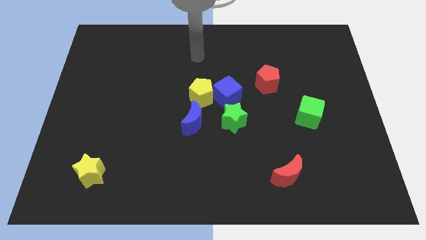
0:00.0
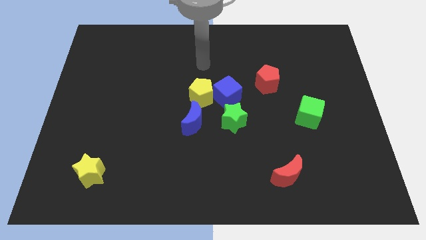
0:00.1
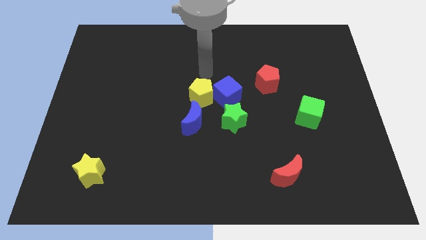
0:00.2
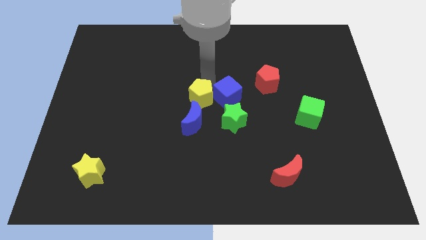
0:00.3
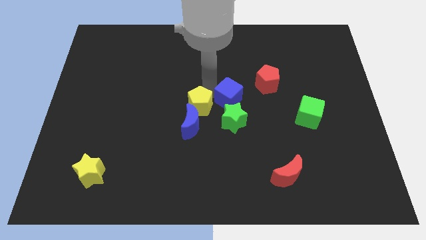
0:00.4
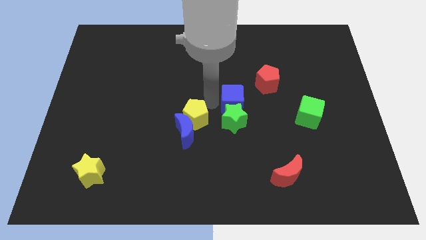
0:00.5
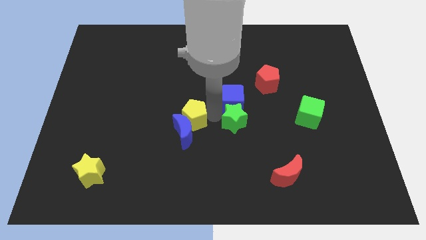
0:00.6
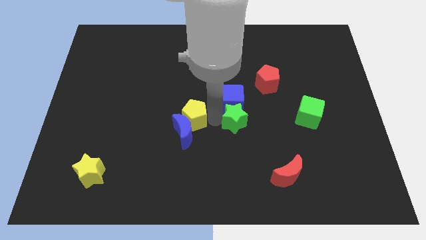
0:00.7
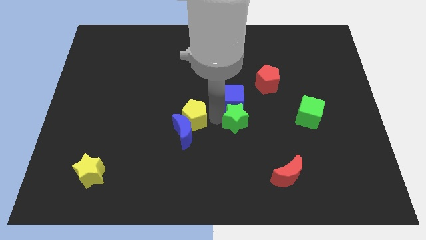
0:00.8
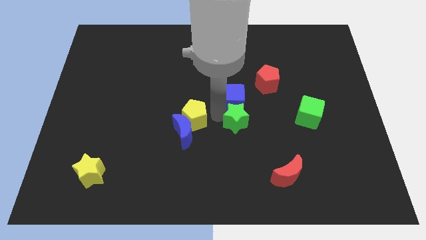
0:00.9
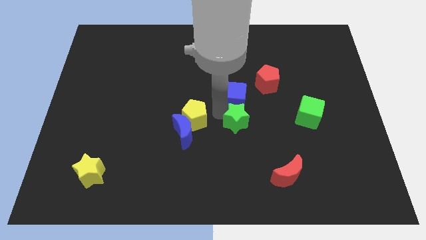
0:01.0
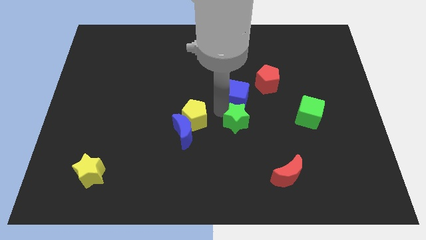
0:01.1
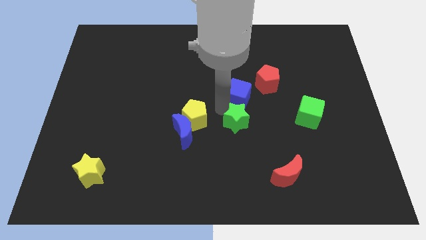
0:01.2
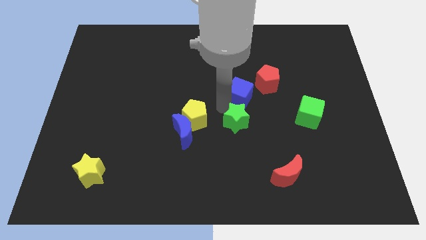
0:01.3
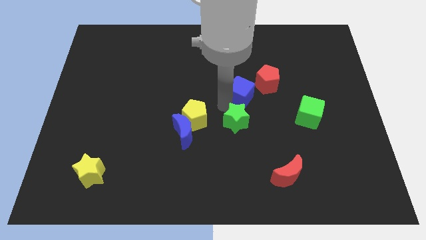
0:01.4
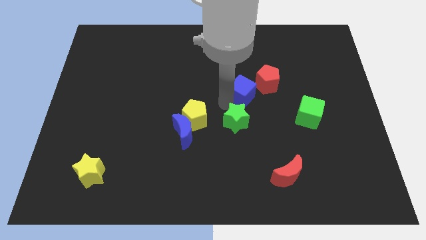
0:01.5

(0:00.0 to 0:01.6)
separate the blue cube from the yellow pentagon and green star

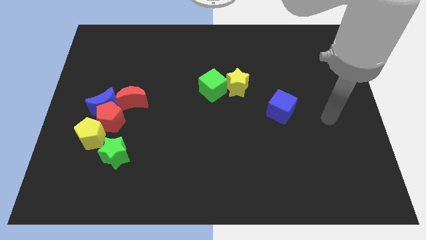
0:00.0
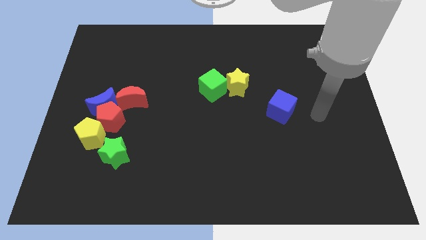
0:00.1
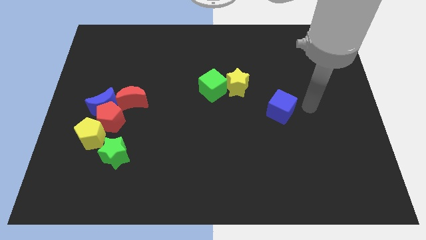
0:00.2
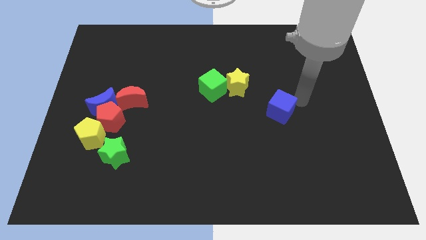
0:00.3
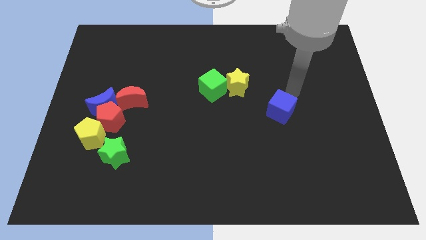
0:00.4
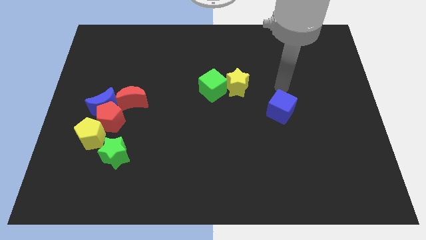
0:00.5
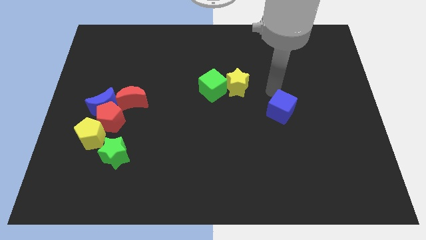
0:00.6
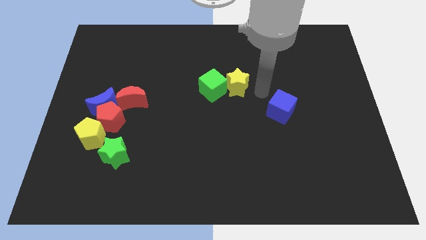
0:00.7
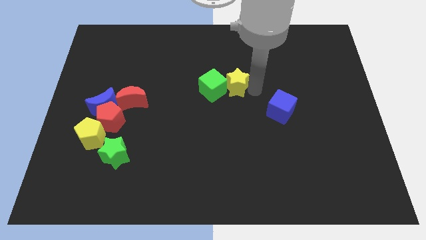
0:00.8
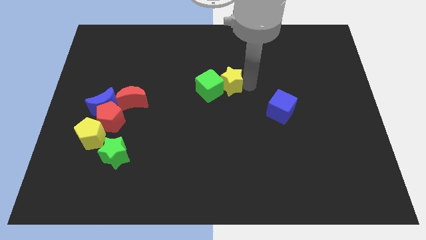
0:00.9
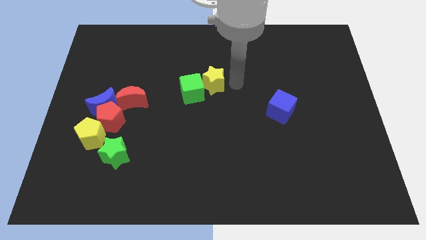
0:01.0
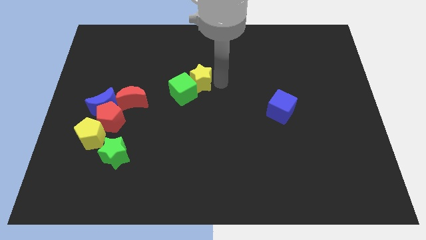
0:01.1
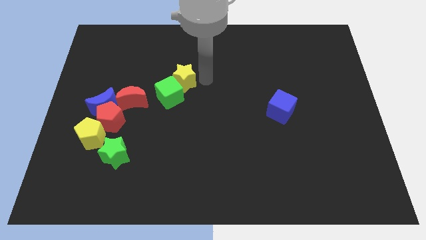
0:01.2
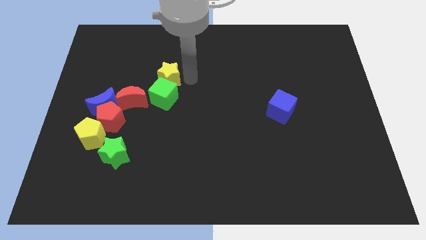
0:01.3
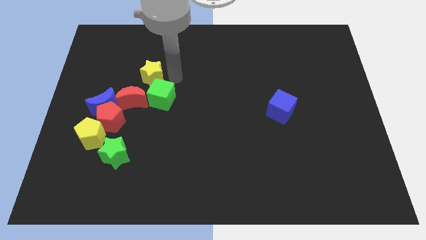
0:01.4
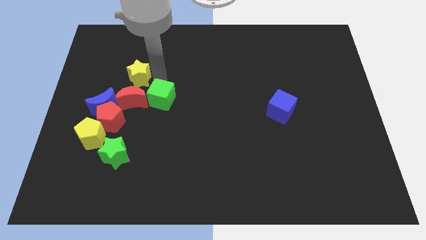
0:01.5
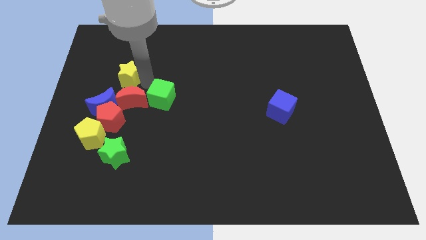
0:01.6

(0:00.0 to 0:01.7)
separate the green cube from the yellow star

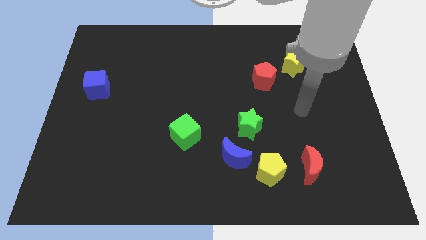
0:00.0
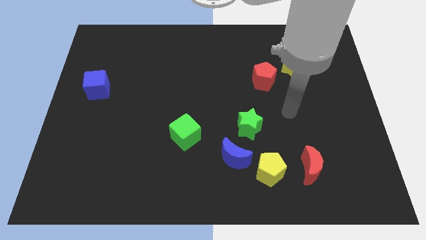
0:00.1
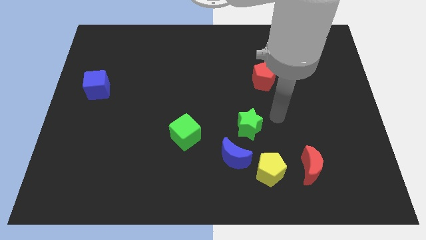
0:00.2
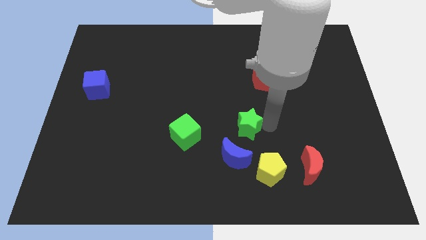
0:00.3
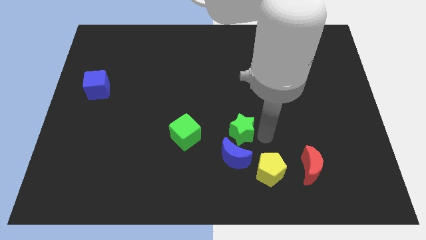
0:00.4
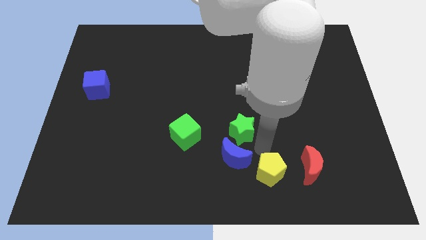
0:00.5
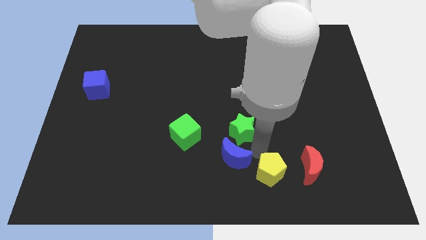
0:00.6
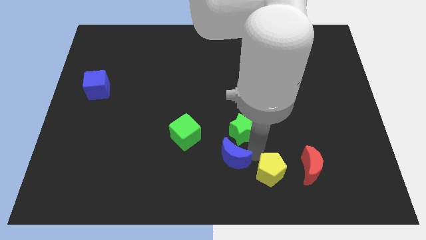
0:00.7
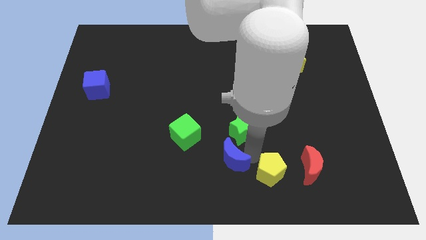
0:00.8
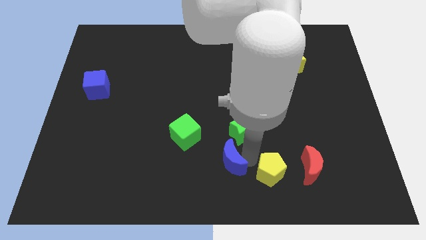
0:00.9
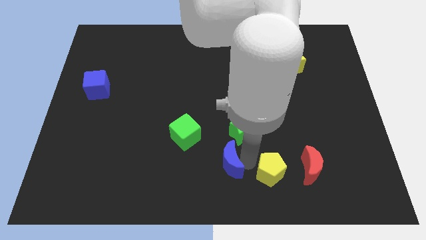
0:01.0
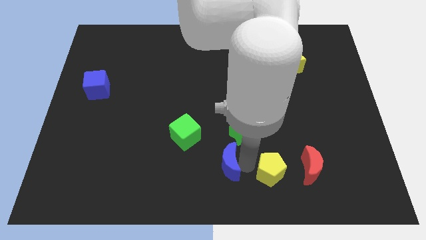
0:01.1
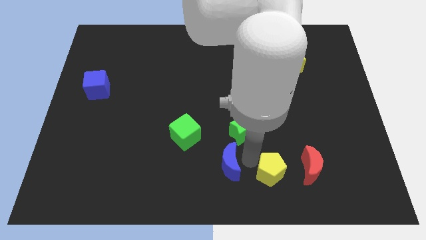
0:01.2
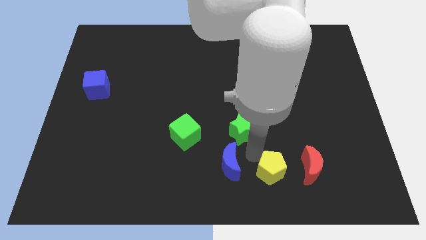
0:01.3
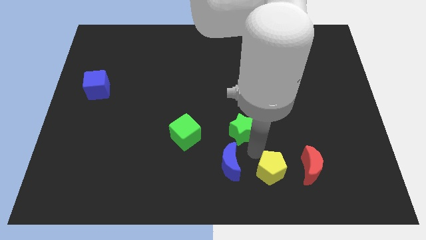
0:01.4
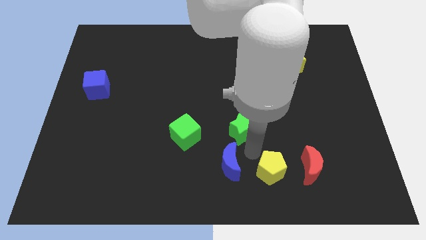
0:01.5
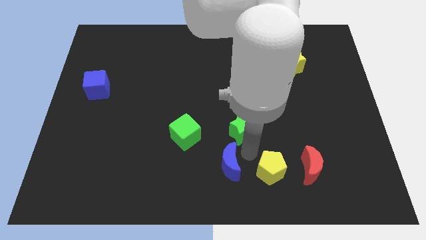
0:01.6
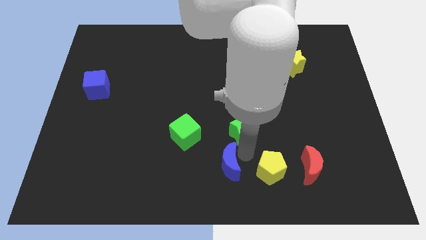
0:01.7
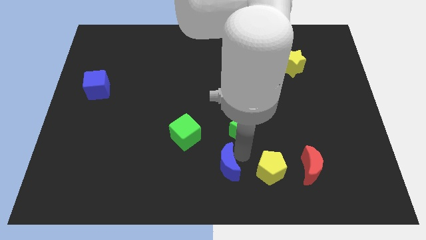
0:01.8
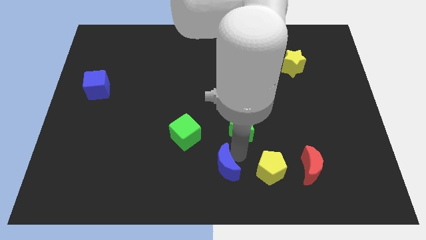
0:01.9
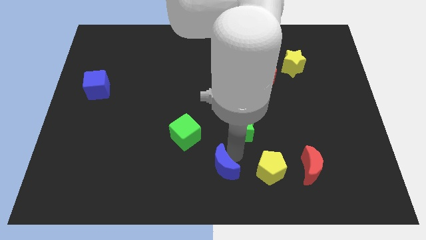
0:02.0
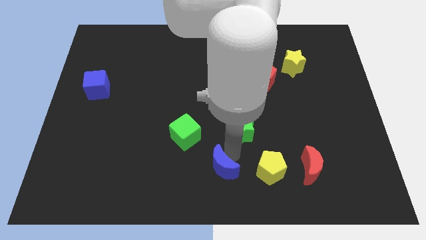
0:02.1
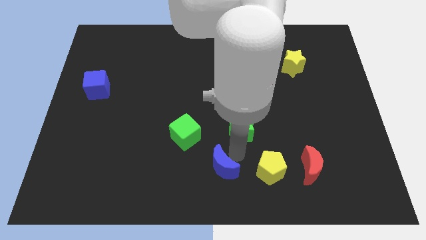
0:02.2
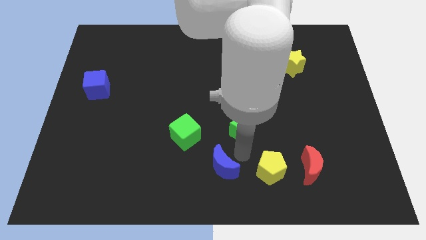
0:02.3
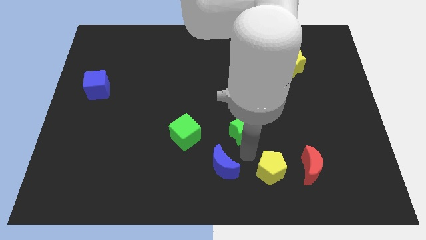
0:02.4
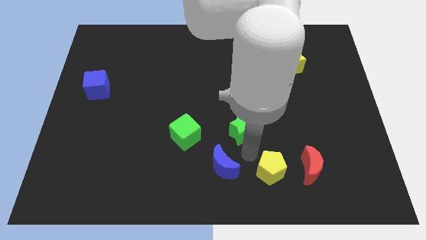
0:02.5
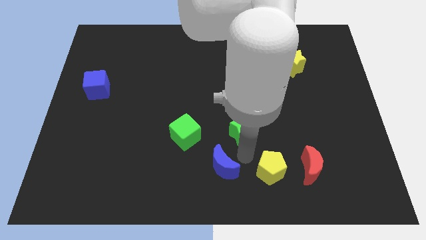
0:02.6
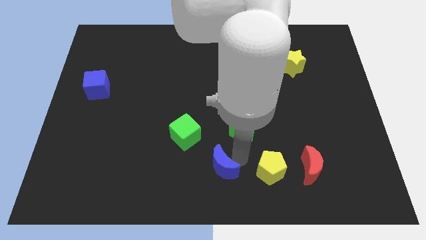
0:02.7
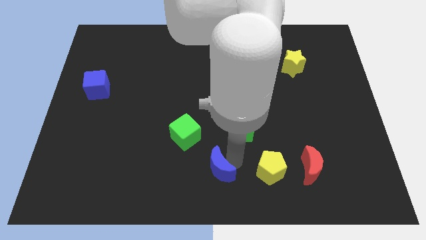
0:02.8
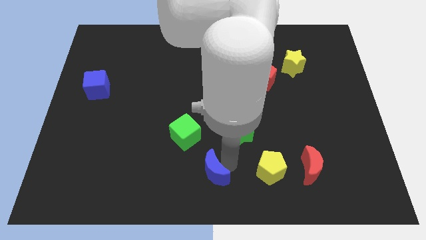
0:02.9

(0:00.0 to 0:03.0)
pull the blue moon apart from the yellow pentagon and green star

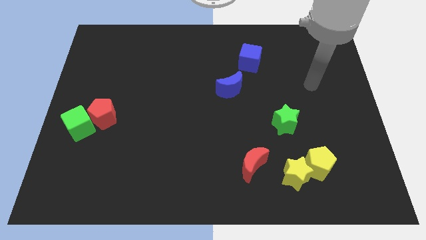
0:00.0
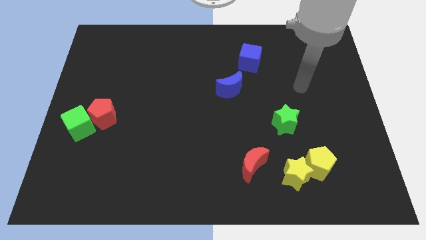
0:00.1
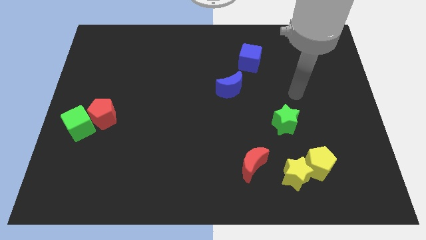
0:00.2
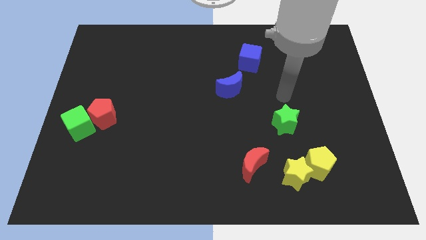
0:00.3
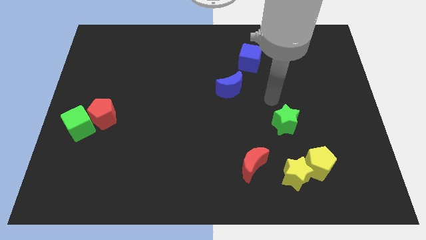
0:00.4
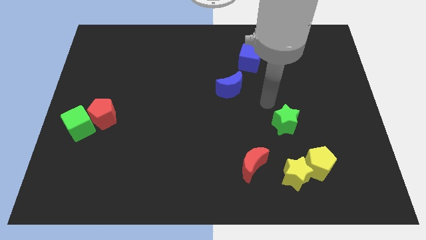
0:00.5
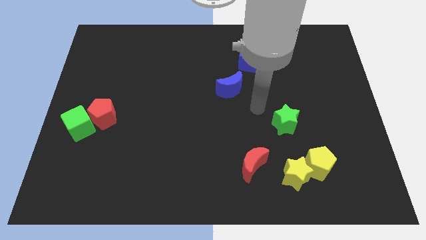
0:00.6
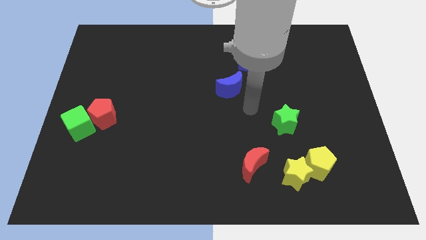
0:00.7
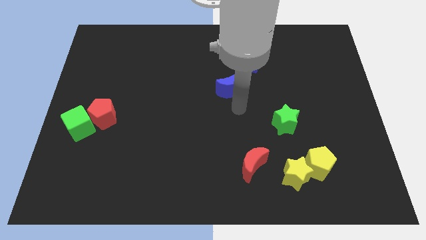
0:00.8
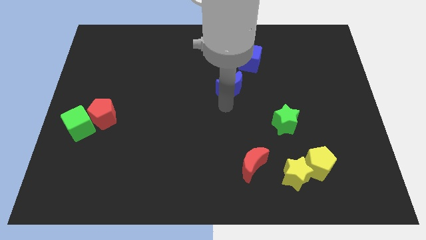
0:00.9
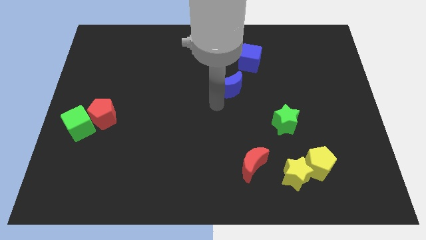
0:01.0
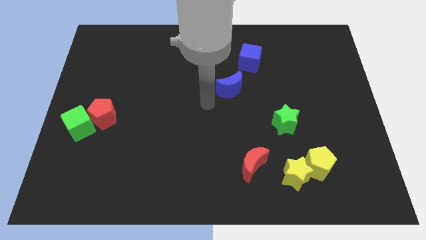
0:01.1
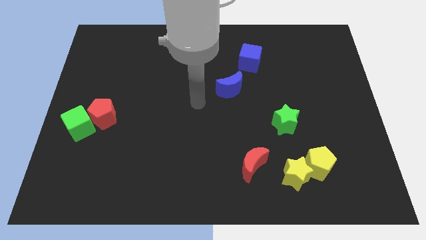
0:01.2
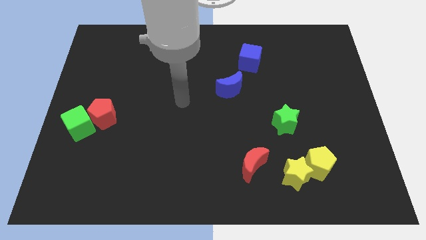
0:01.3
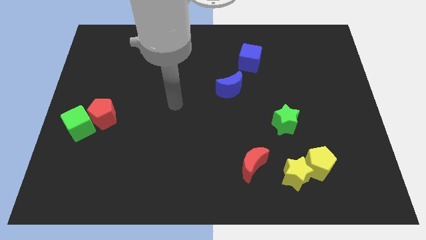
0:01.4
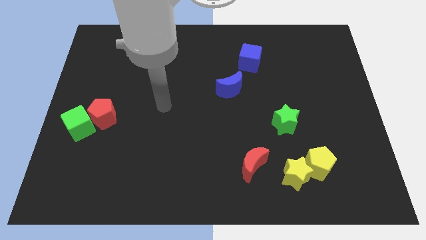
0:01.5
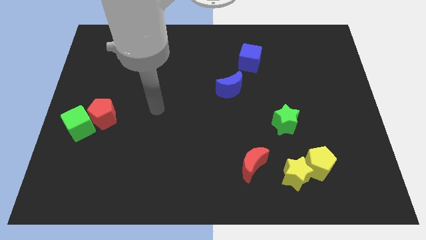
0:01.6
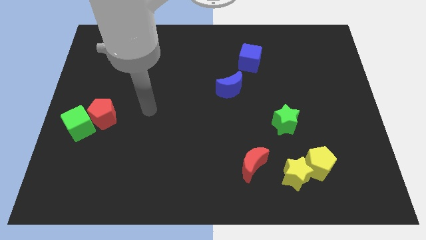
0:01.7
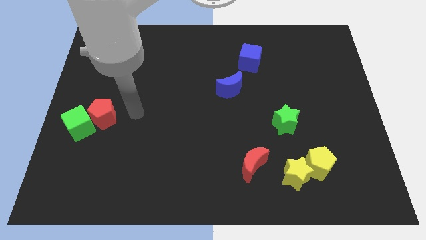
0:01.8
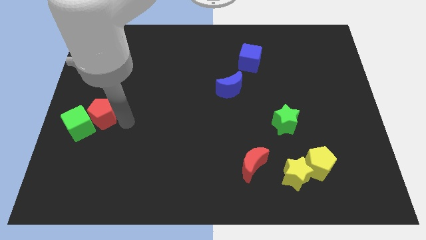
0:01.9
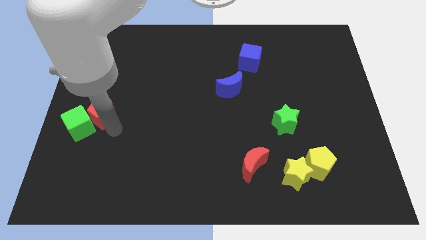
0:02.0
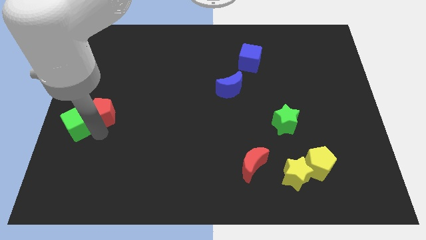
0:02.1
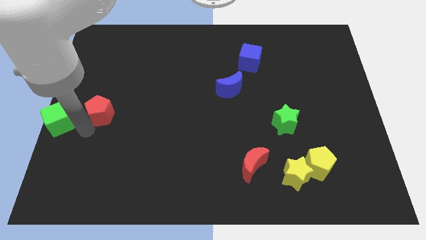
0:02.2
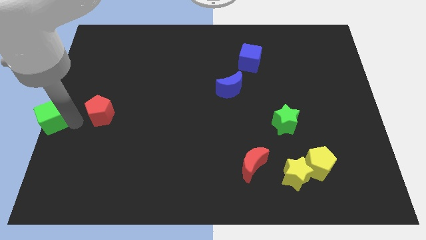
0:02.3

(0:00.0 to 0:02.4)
pull the red pentagon apart from the green cube

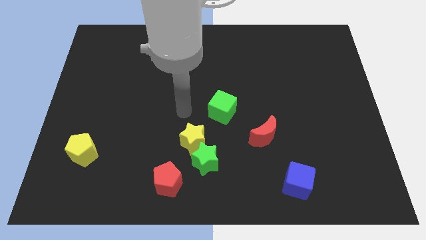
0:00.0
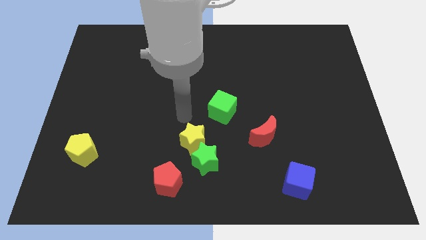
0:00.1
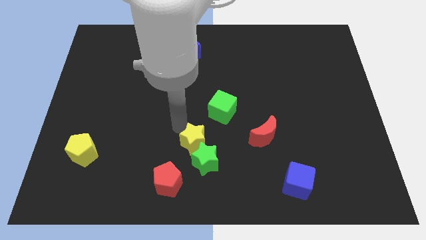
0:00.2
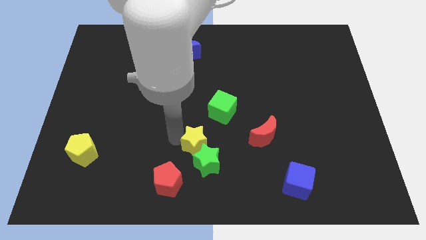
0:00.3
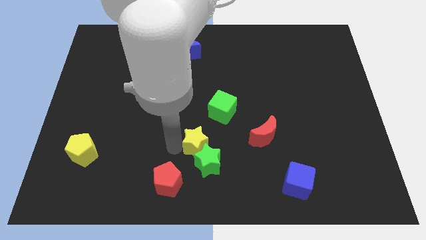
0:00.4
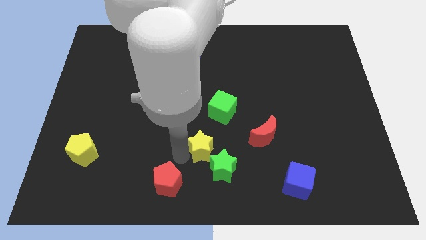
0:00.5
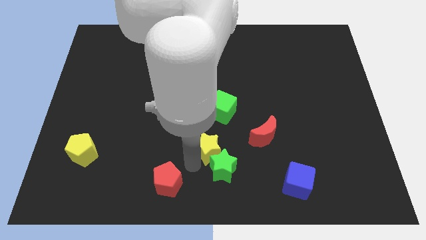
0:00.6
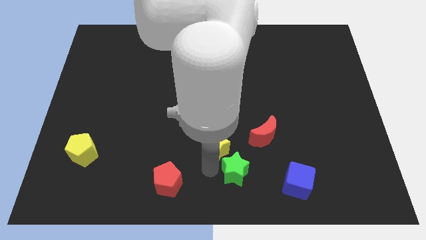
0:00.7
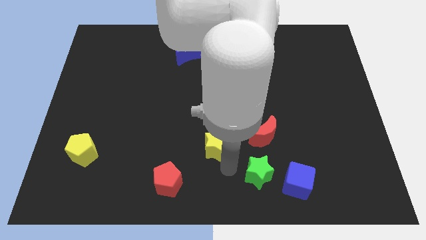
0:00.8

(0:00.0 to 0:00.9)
pull the yellow star apart from the green star
